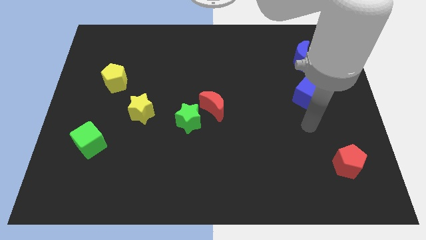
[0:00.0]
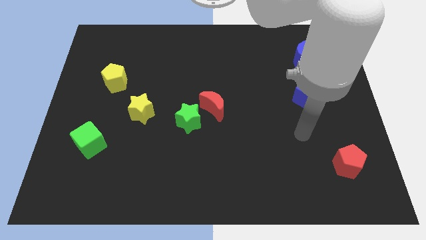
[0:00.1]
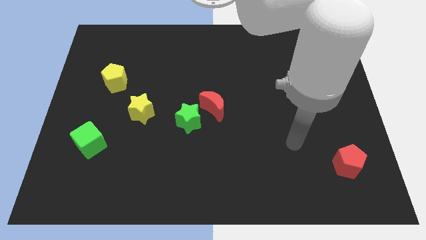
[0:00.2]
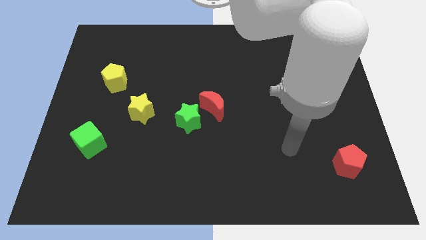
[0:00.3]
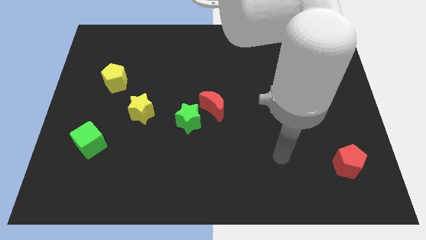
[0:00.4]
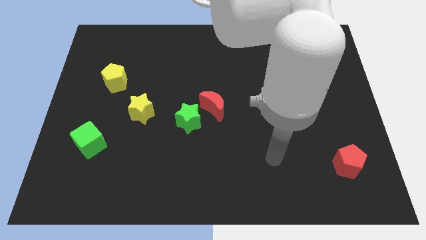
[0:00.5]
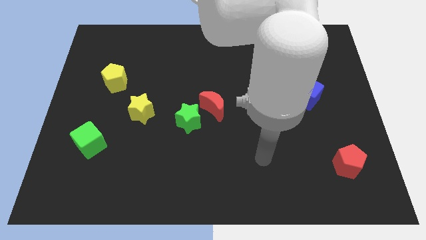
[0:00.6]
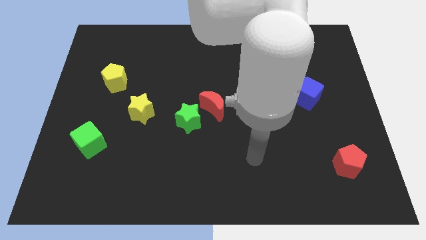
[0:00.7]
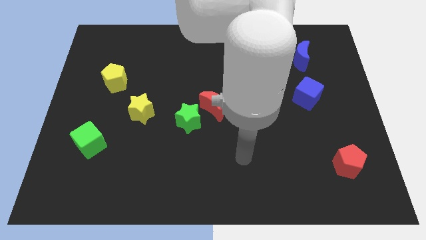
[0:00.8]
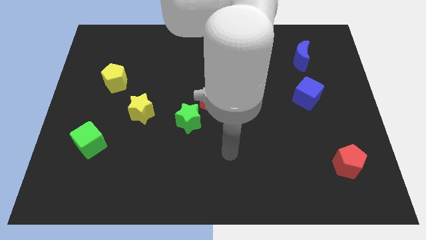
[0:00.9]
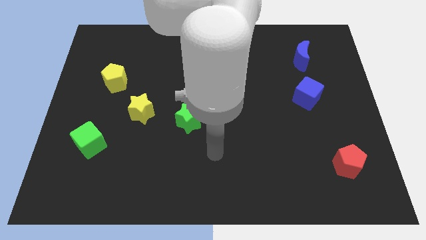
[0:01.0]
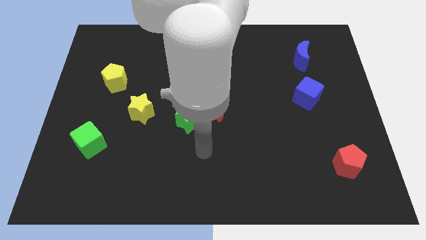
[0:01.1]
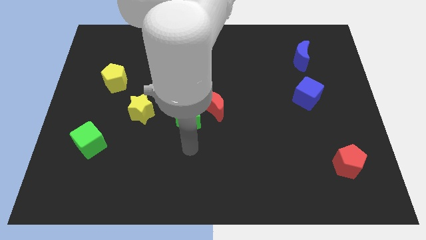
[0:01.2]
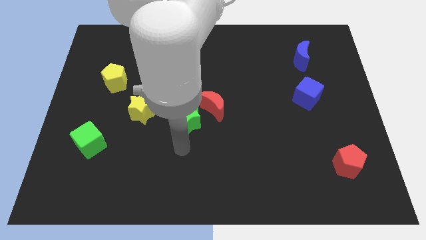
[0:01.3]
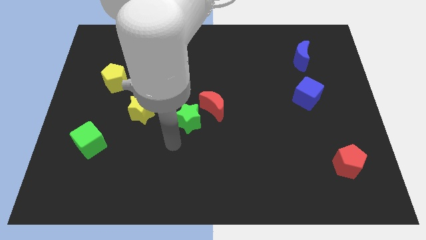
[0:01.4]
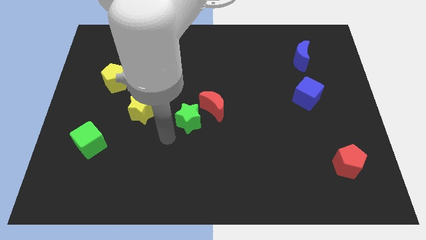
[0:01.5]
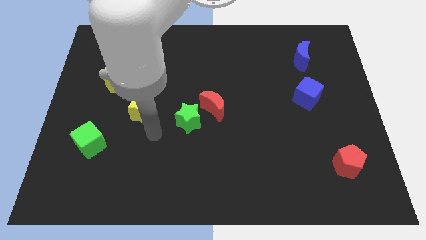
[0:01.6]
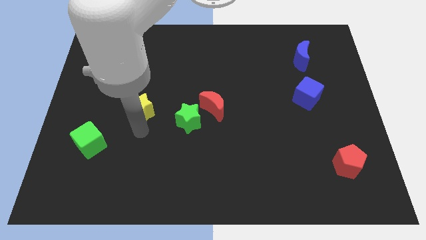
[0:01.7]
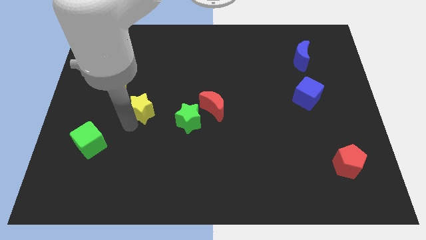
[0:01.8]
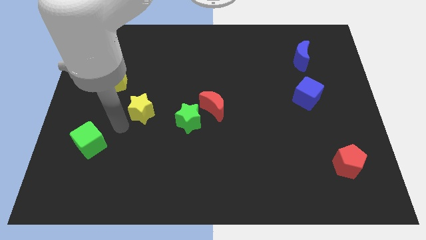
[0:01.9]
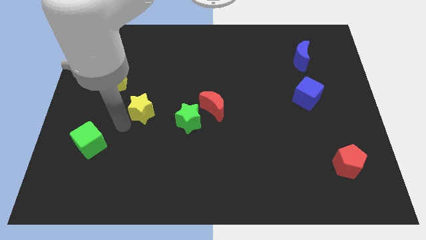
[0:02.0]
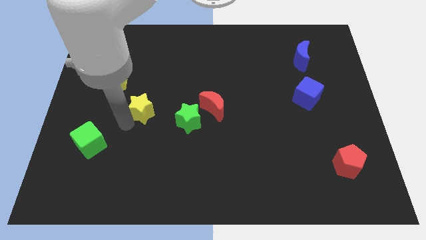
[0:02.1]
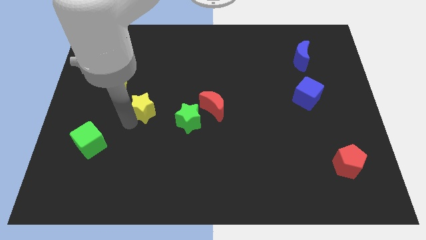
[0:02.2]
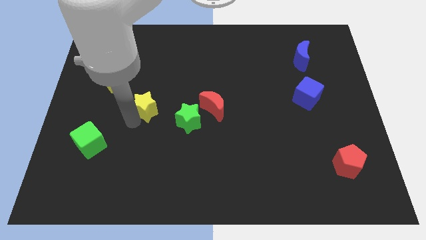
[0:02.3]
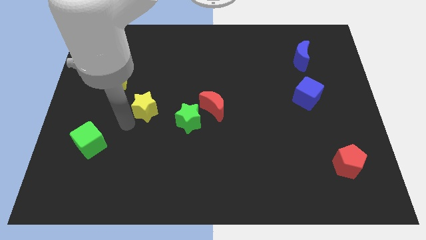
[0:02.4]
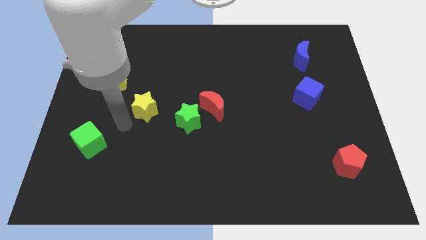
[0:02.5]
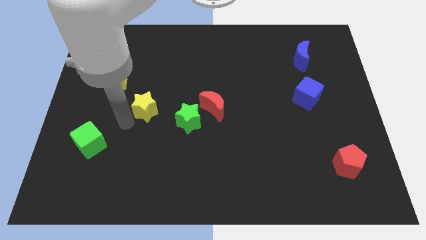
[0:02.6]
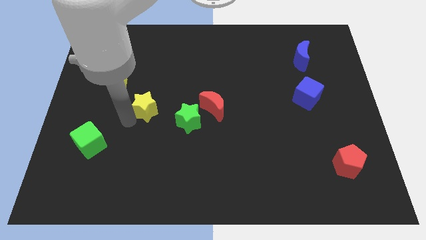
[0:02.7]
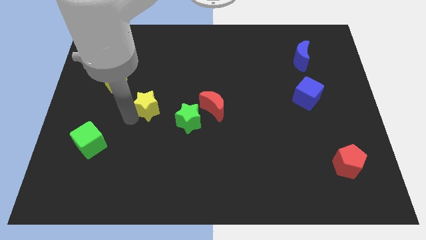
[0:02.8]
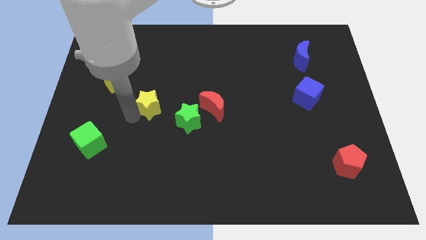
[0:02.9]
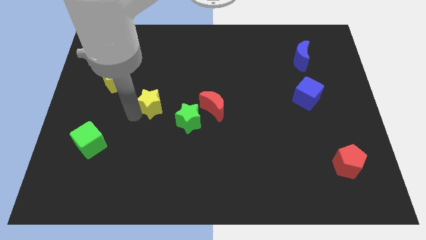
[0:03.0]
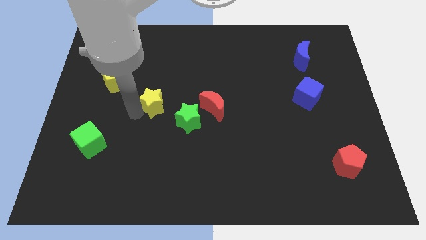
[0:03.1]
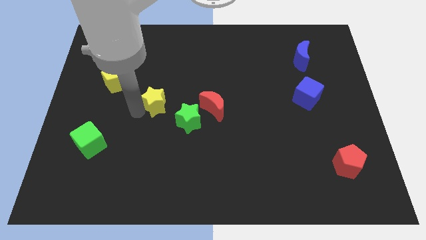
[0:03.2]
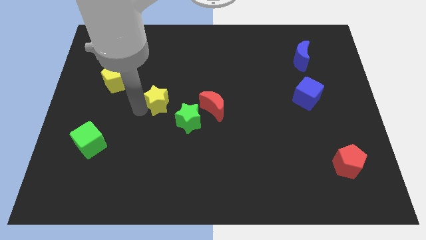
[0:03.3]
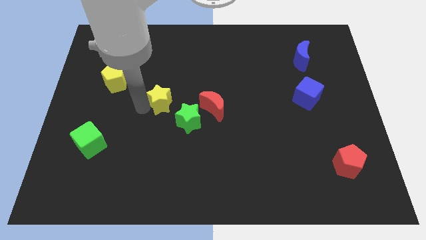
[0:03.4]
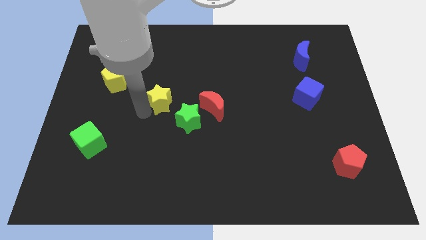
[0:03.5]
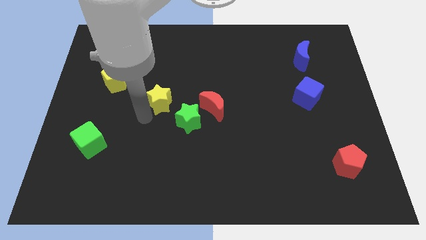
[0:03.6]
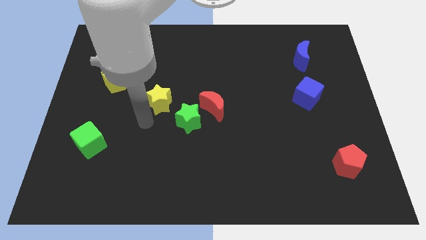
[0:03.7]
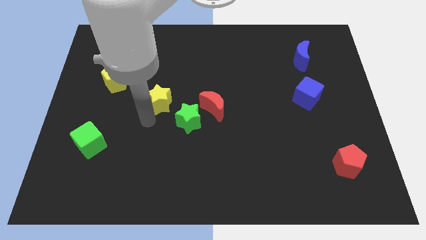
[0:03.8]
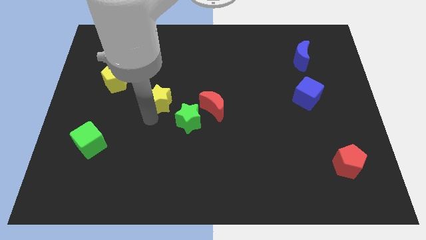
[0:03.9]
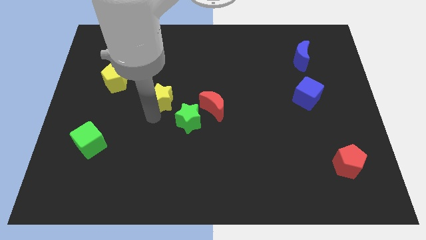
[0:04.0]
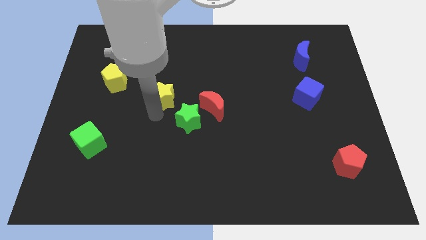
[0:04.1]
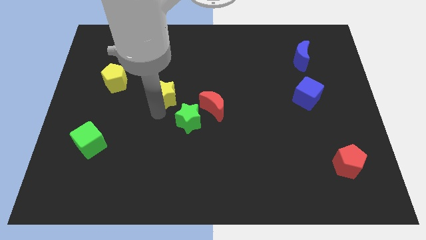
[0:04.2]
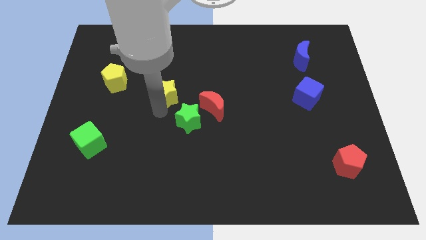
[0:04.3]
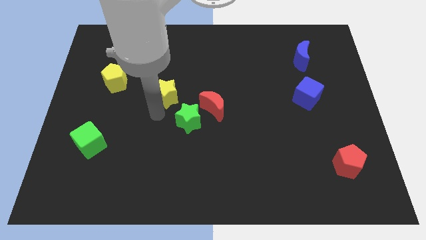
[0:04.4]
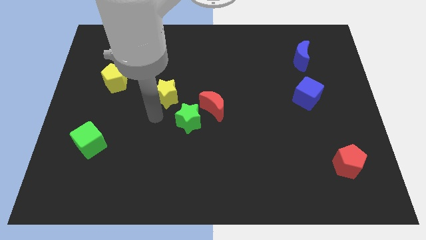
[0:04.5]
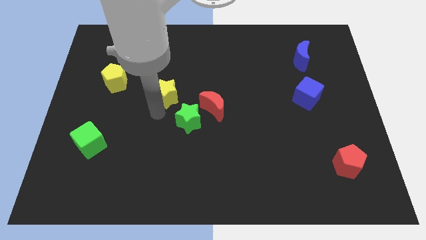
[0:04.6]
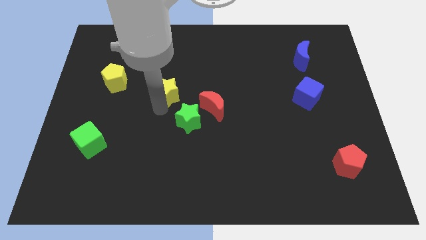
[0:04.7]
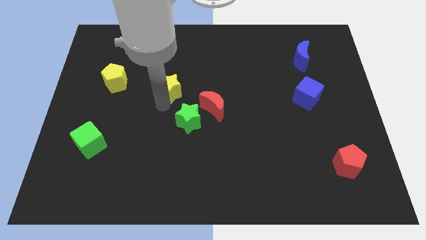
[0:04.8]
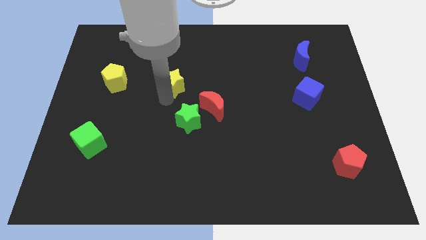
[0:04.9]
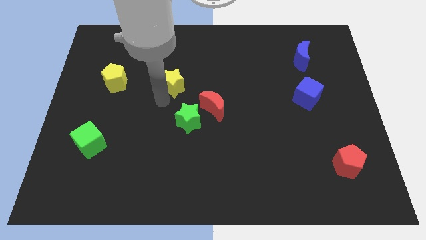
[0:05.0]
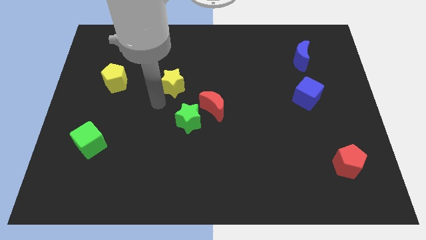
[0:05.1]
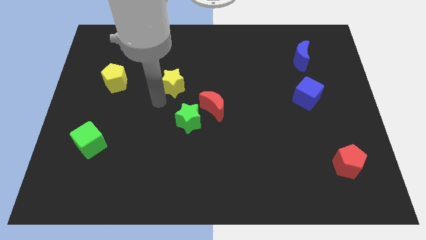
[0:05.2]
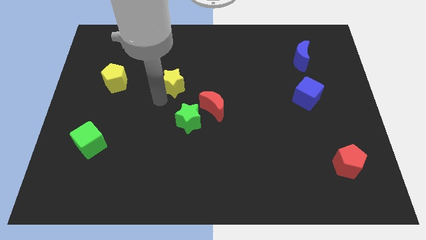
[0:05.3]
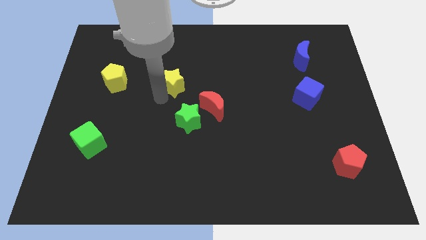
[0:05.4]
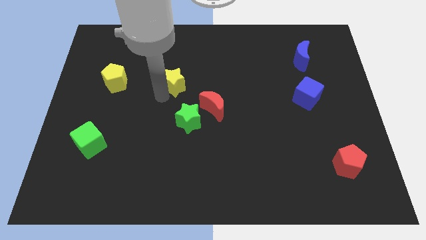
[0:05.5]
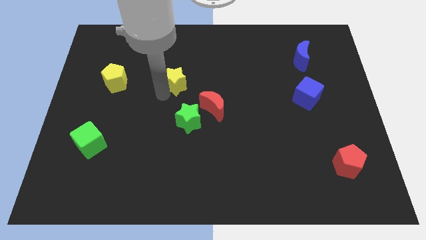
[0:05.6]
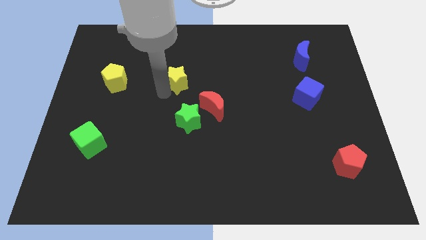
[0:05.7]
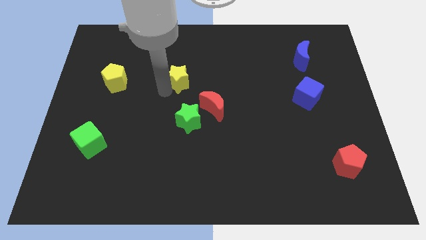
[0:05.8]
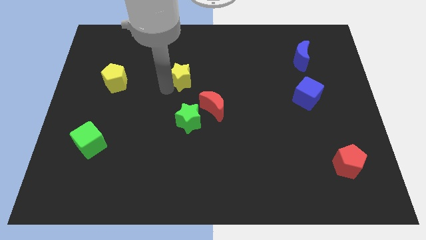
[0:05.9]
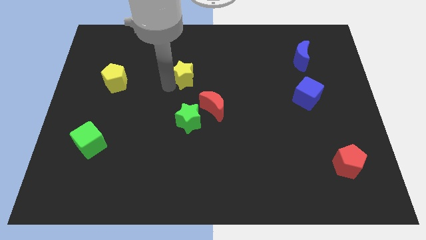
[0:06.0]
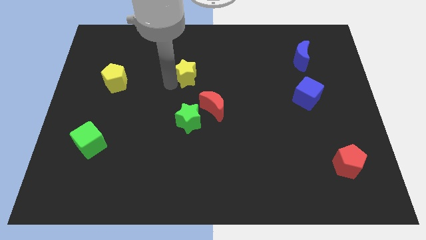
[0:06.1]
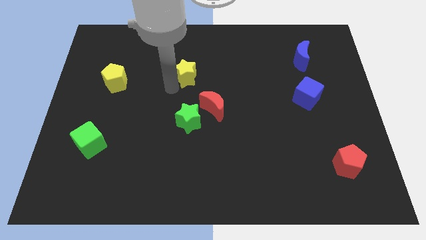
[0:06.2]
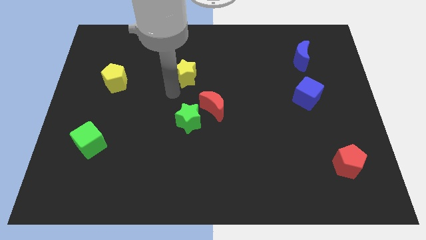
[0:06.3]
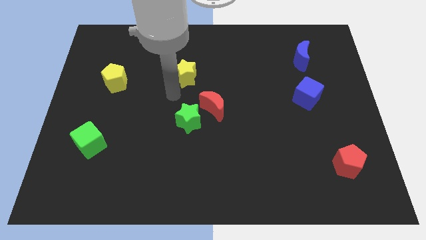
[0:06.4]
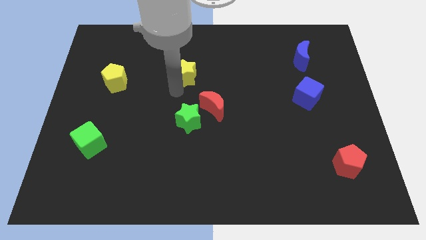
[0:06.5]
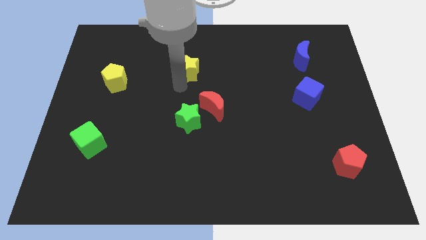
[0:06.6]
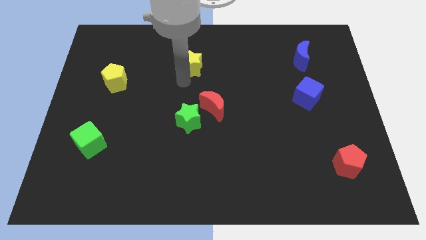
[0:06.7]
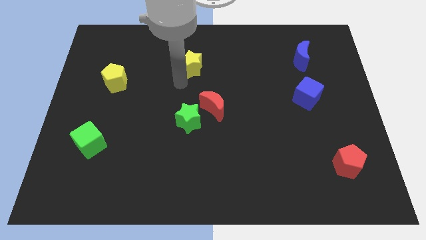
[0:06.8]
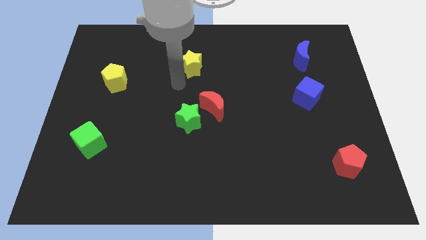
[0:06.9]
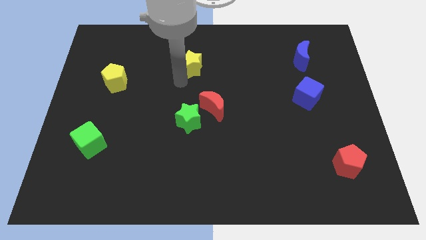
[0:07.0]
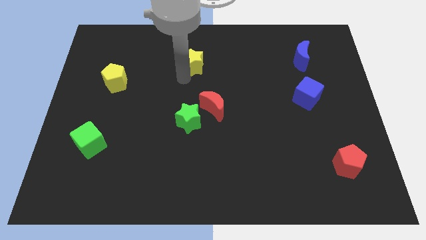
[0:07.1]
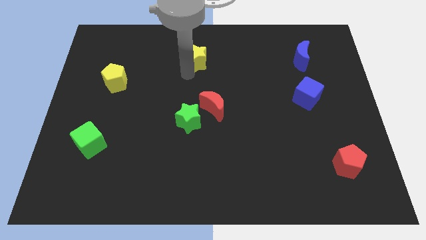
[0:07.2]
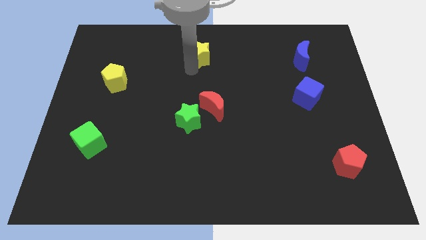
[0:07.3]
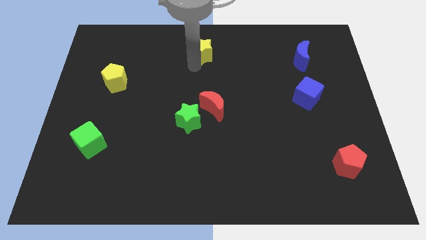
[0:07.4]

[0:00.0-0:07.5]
put the yellow star to the top
